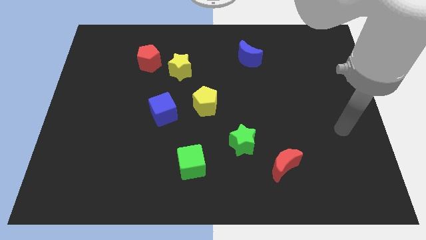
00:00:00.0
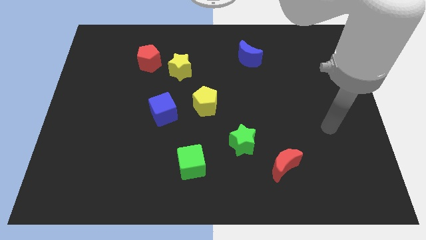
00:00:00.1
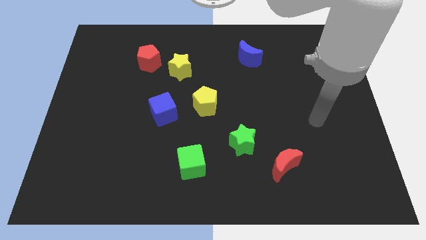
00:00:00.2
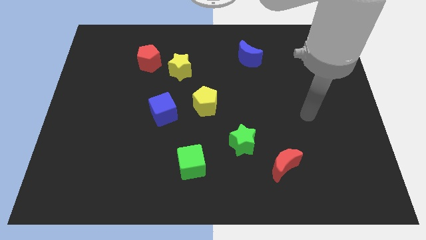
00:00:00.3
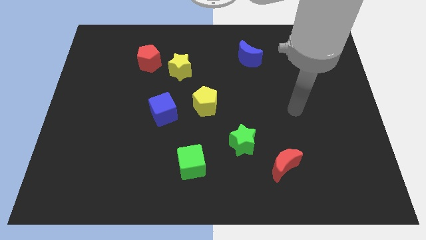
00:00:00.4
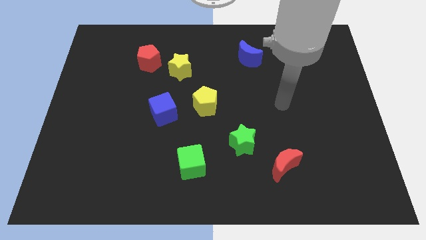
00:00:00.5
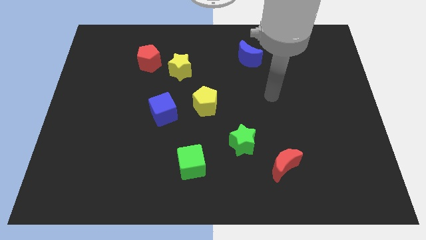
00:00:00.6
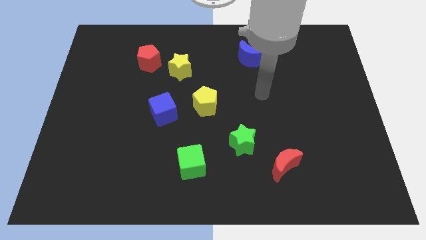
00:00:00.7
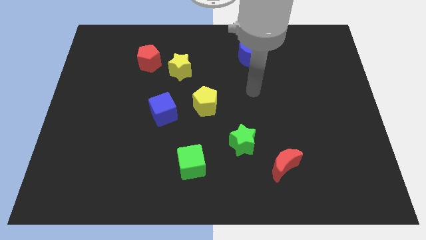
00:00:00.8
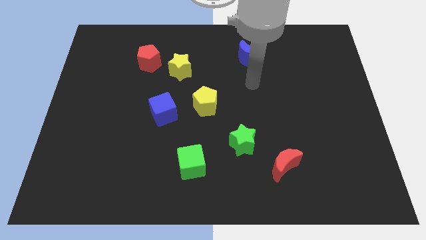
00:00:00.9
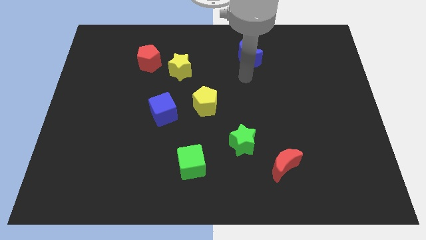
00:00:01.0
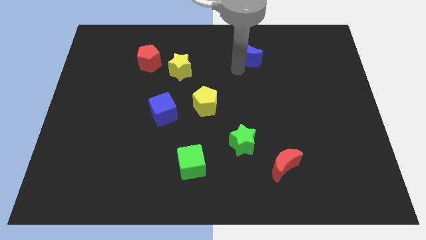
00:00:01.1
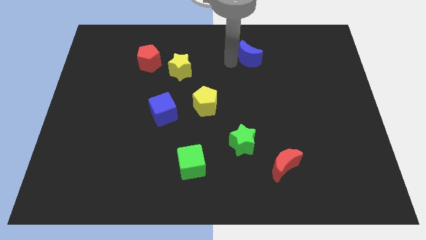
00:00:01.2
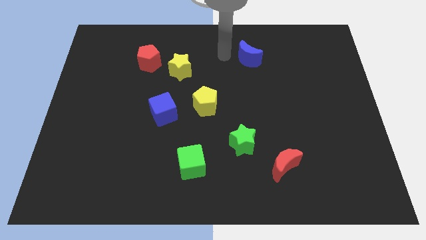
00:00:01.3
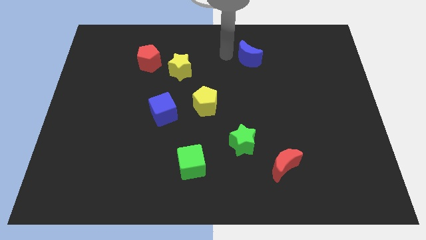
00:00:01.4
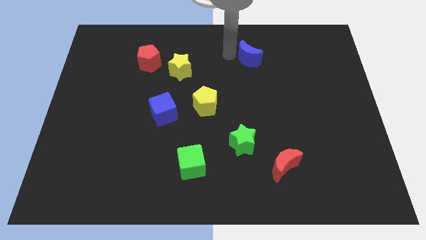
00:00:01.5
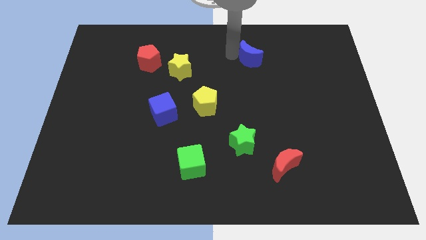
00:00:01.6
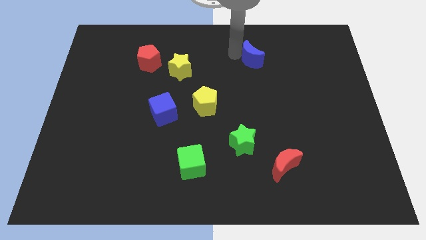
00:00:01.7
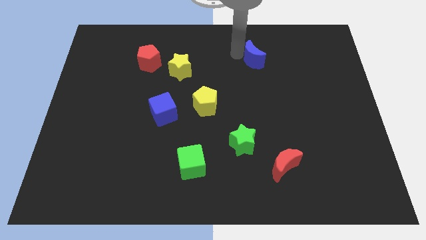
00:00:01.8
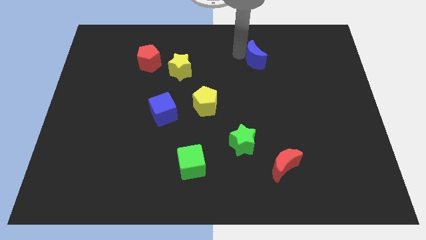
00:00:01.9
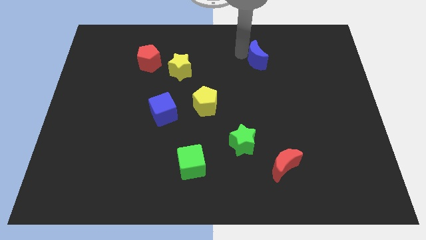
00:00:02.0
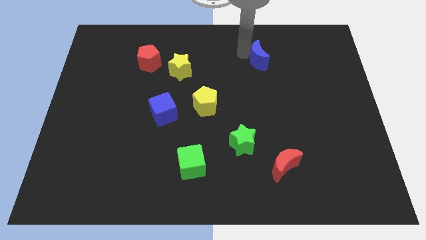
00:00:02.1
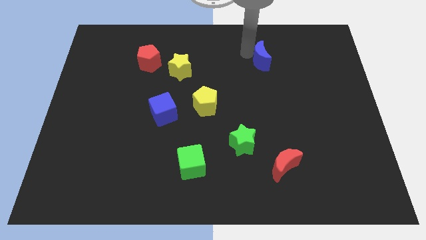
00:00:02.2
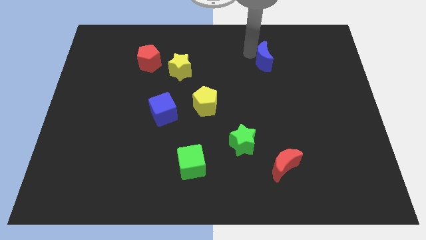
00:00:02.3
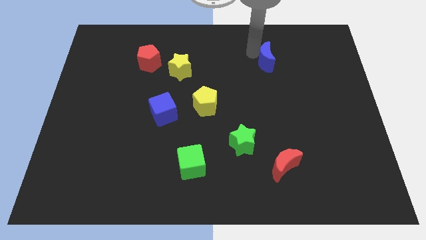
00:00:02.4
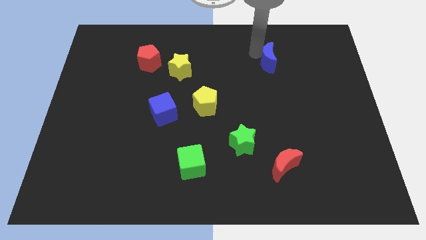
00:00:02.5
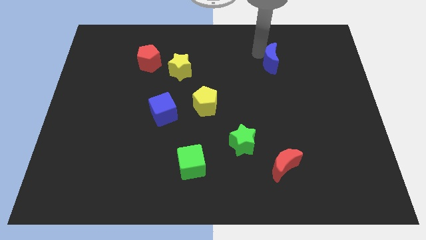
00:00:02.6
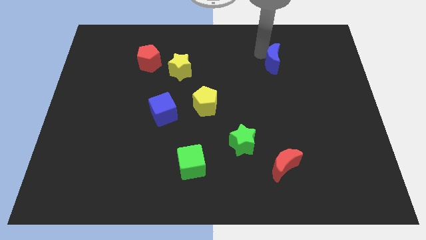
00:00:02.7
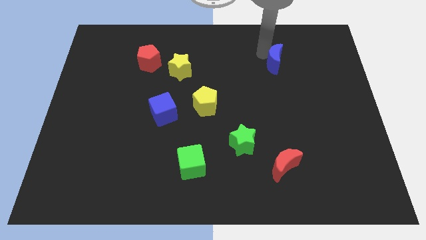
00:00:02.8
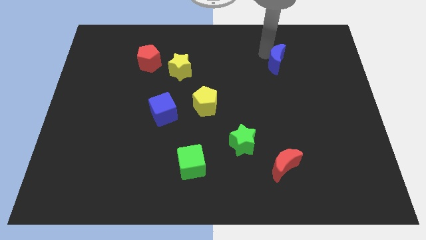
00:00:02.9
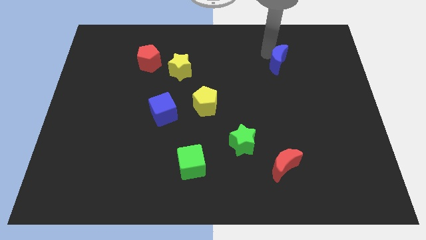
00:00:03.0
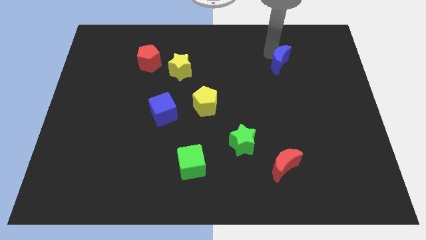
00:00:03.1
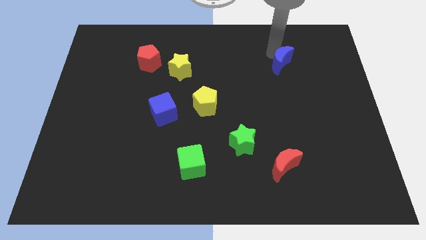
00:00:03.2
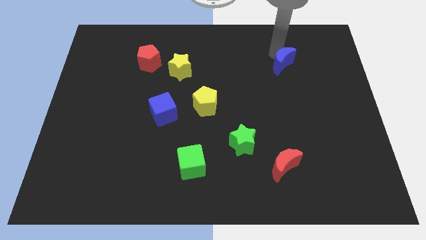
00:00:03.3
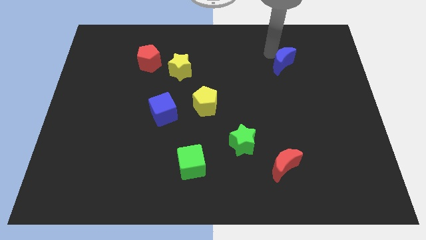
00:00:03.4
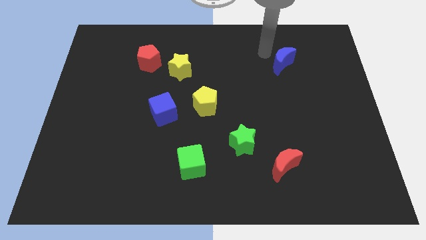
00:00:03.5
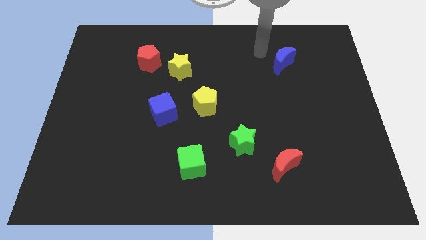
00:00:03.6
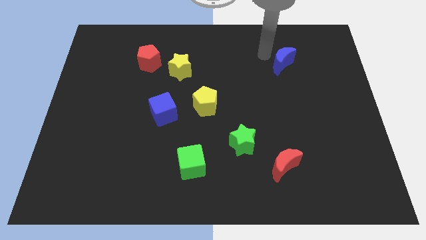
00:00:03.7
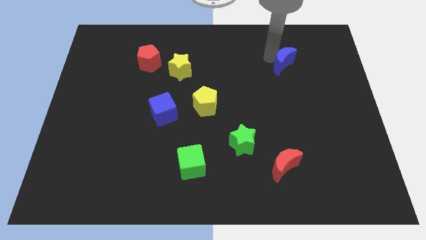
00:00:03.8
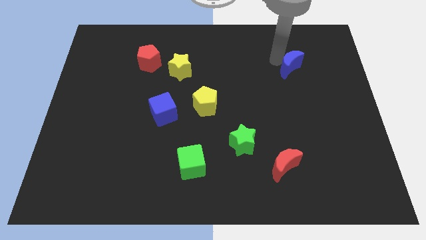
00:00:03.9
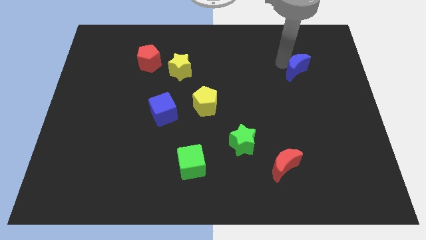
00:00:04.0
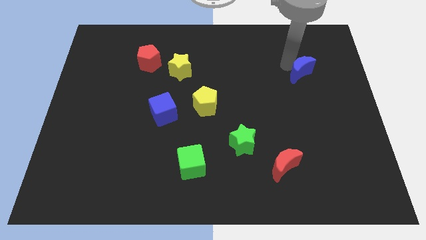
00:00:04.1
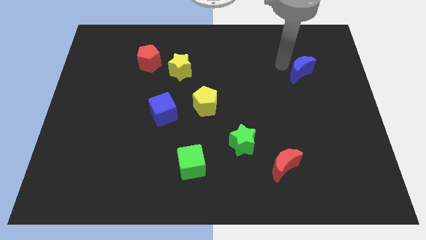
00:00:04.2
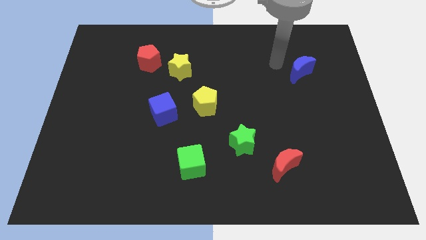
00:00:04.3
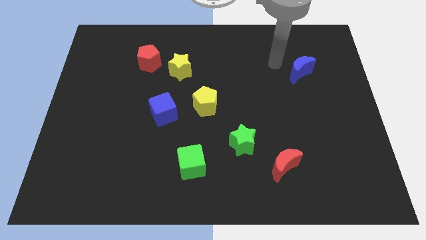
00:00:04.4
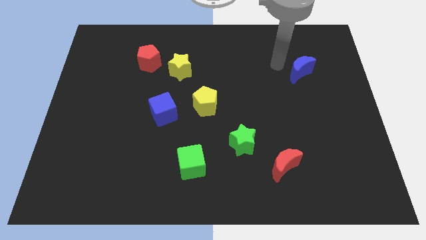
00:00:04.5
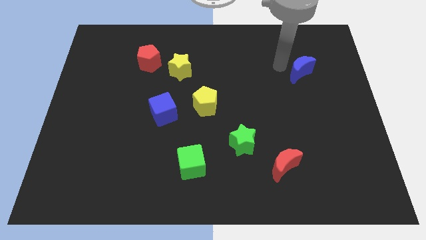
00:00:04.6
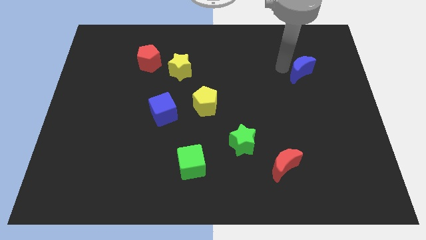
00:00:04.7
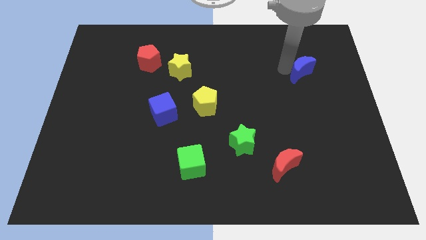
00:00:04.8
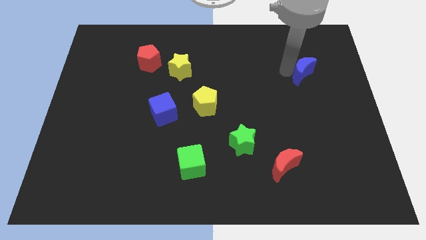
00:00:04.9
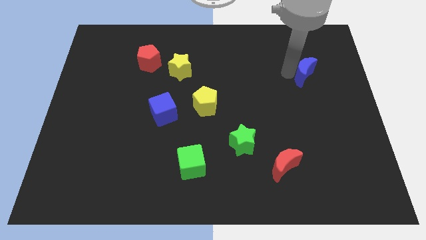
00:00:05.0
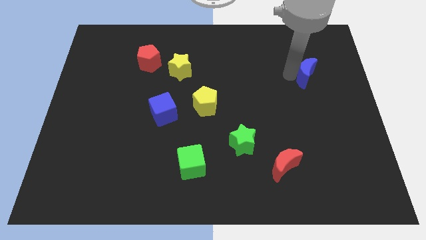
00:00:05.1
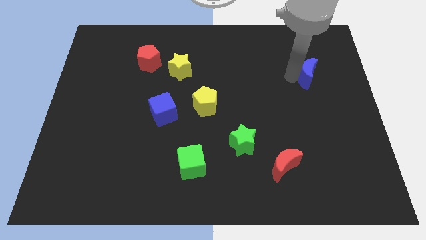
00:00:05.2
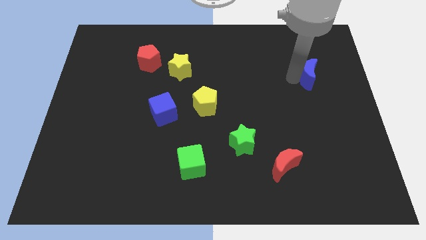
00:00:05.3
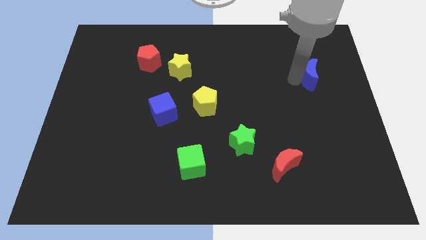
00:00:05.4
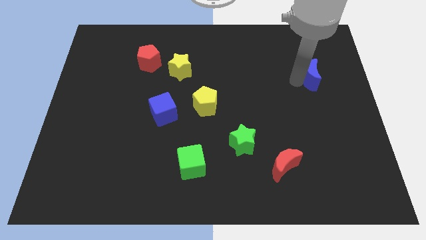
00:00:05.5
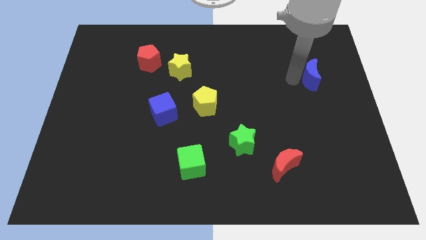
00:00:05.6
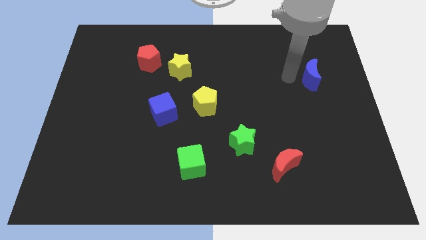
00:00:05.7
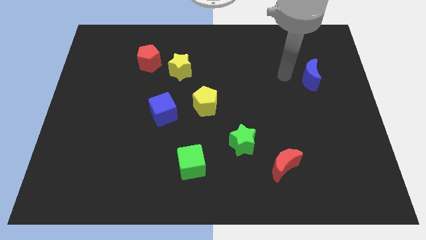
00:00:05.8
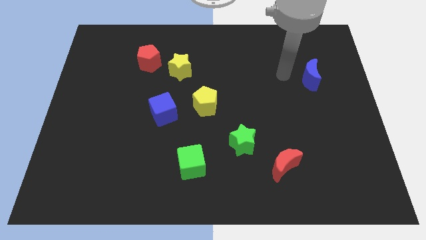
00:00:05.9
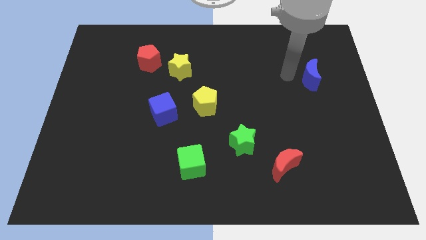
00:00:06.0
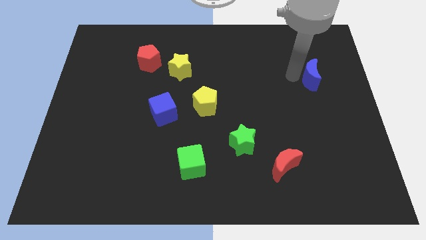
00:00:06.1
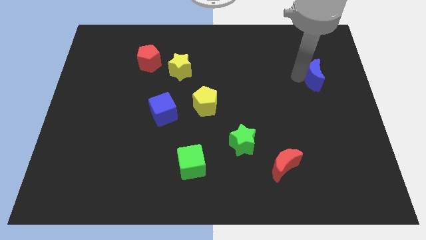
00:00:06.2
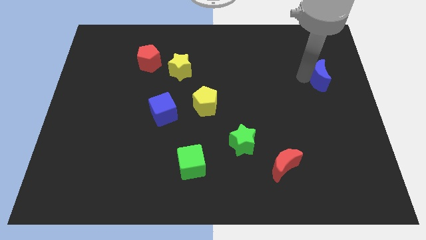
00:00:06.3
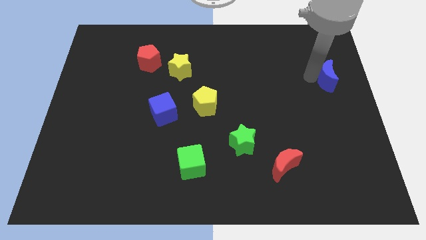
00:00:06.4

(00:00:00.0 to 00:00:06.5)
put the blue moon to the center right

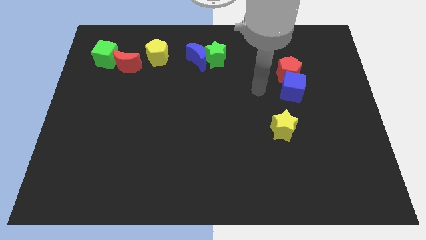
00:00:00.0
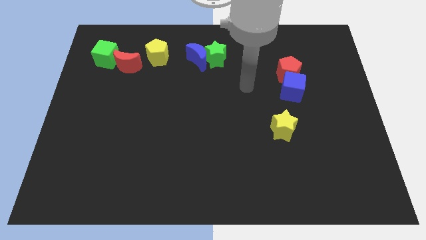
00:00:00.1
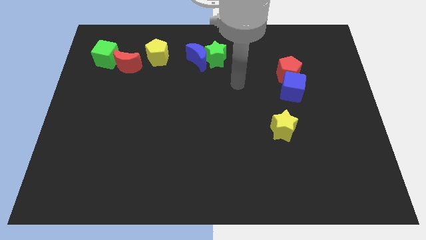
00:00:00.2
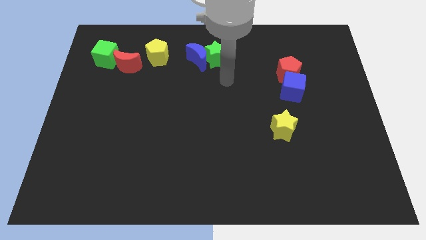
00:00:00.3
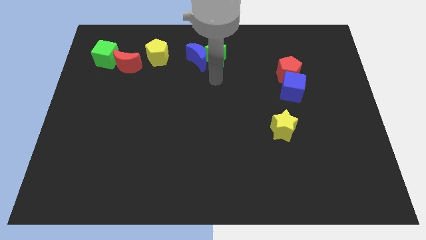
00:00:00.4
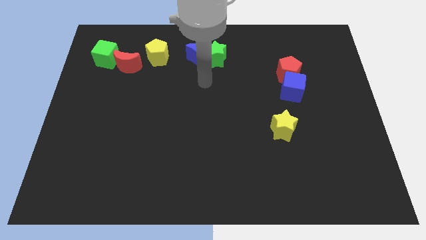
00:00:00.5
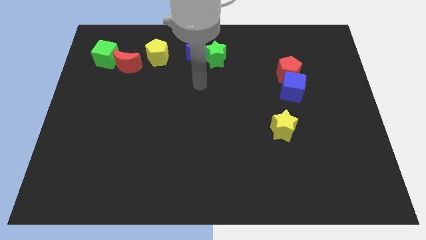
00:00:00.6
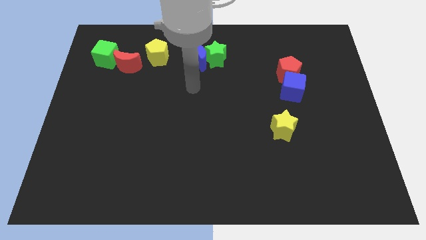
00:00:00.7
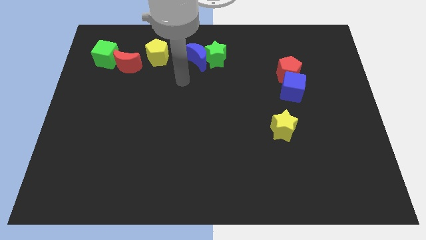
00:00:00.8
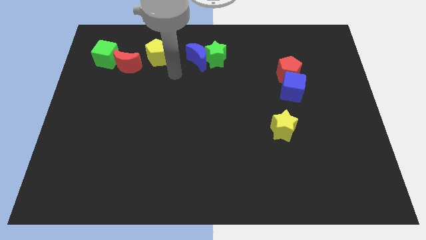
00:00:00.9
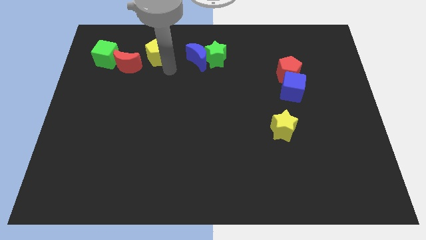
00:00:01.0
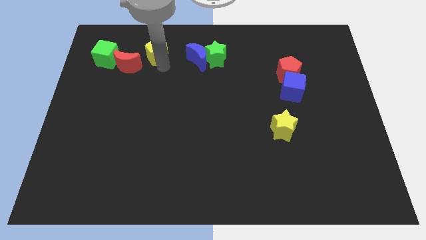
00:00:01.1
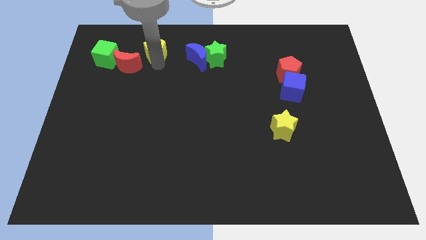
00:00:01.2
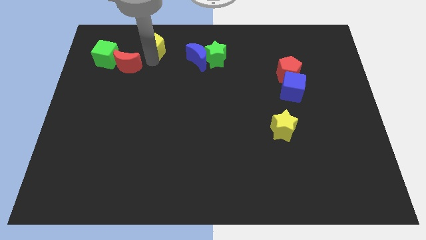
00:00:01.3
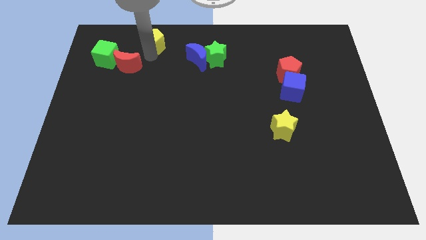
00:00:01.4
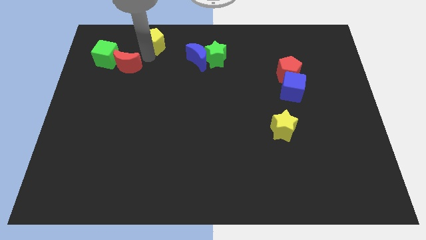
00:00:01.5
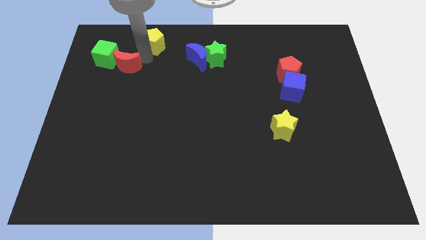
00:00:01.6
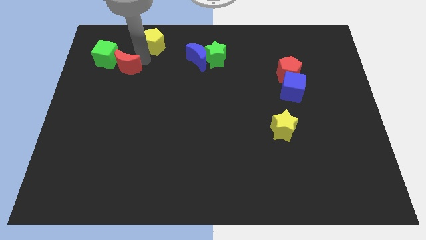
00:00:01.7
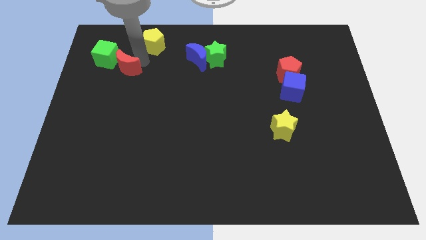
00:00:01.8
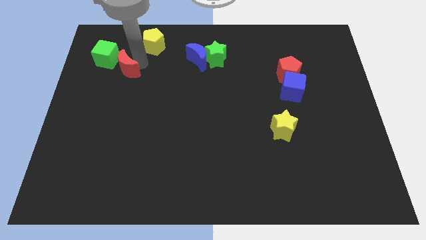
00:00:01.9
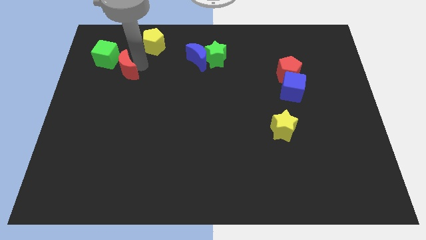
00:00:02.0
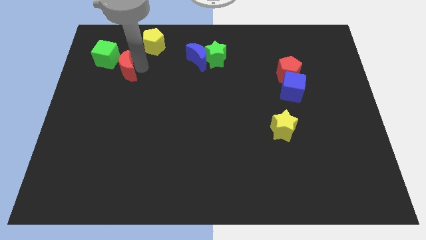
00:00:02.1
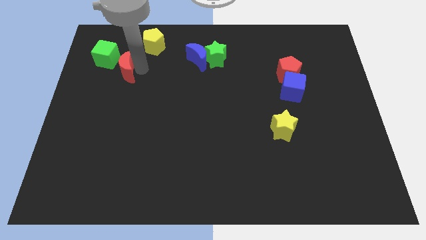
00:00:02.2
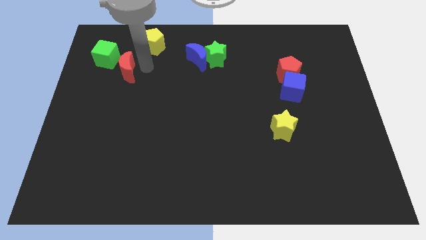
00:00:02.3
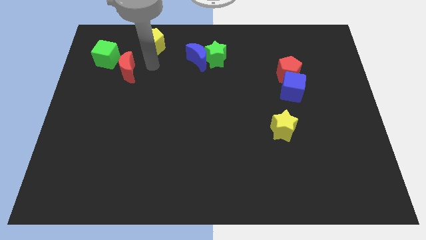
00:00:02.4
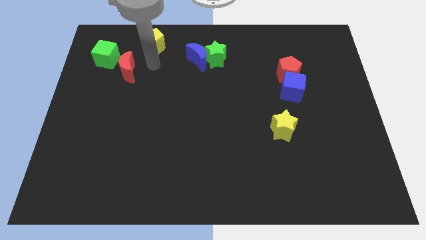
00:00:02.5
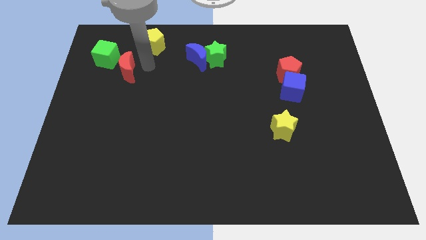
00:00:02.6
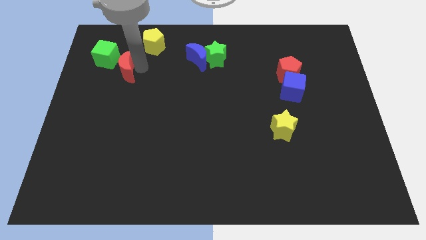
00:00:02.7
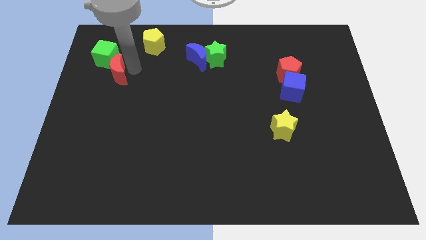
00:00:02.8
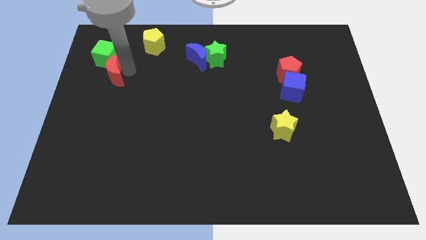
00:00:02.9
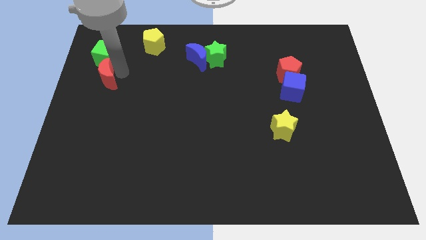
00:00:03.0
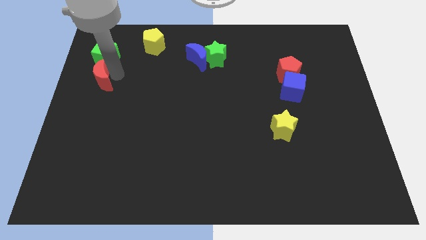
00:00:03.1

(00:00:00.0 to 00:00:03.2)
put the red moon to the center left
